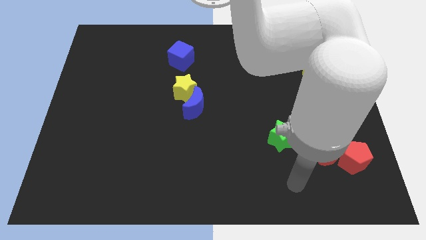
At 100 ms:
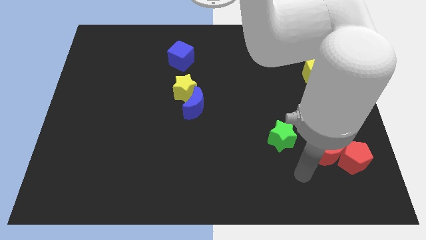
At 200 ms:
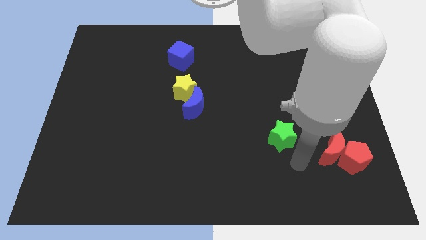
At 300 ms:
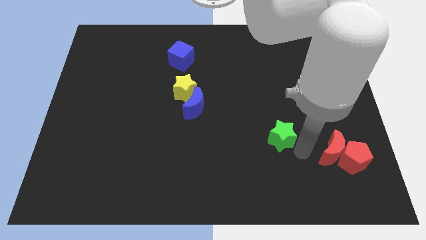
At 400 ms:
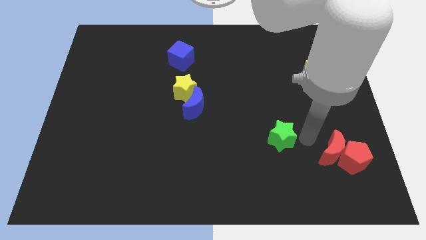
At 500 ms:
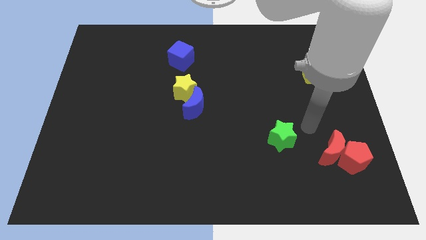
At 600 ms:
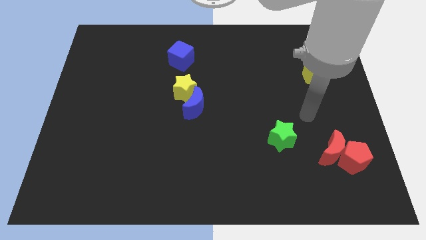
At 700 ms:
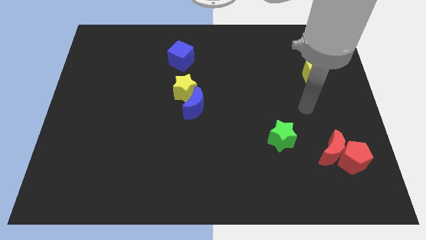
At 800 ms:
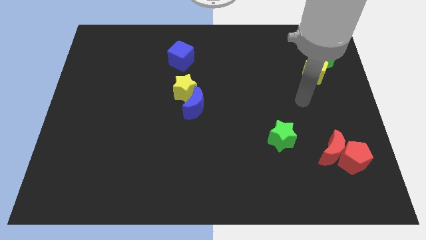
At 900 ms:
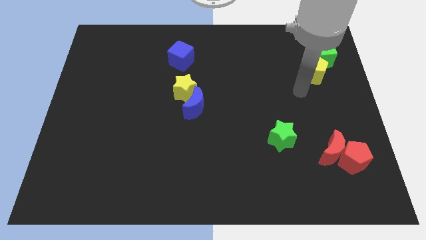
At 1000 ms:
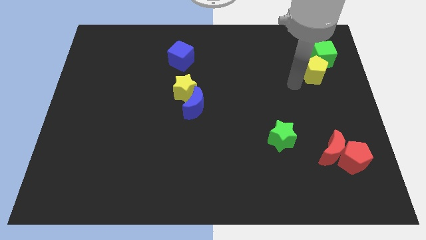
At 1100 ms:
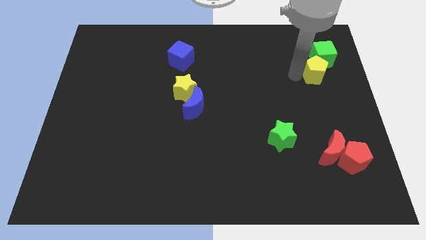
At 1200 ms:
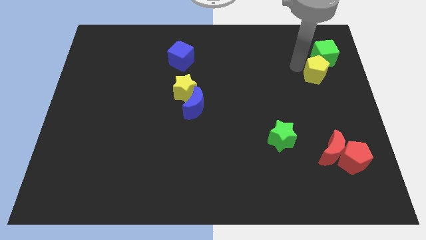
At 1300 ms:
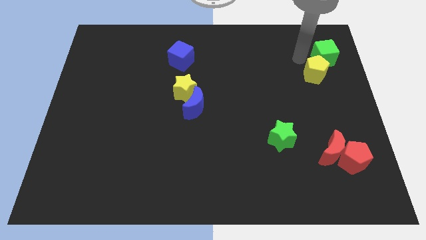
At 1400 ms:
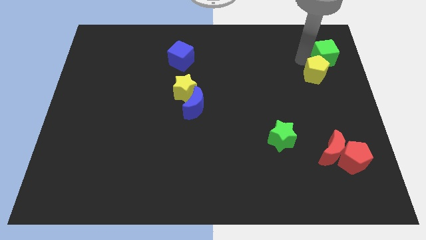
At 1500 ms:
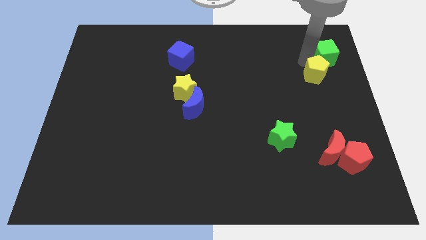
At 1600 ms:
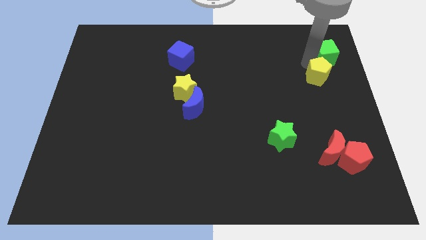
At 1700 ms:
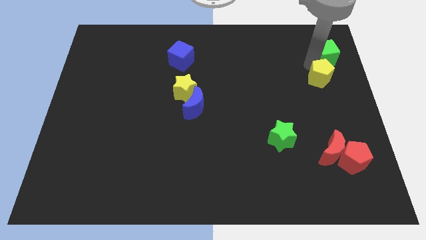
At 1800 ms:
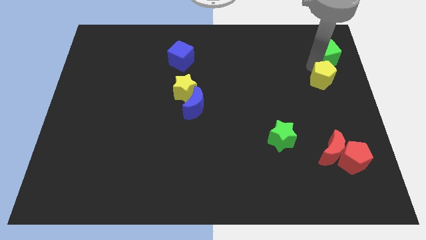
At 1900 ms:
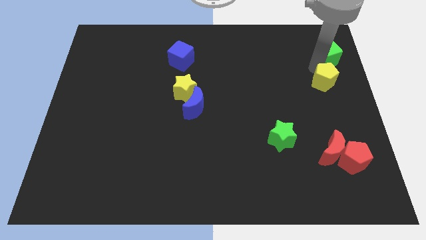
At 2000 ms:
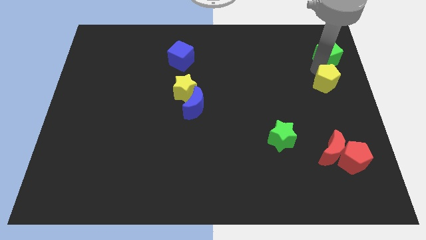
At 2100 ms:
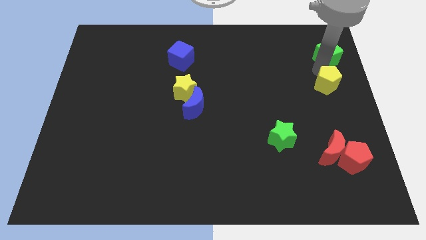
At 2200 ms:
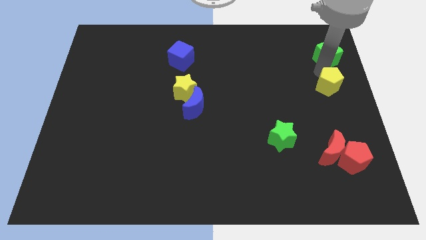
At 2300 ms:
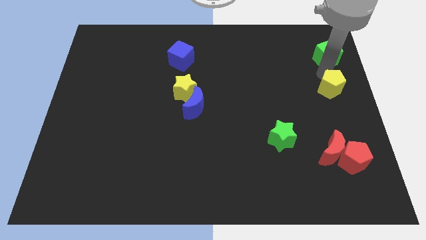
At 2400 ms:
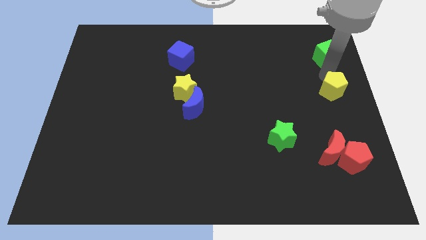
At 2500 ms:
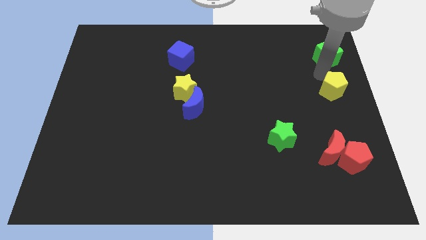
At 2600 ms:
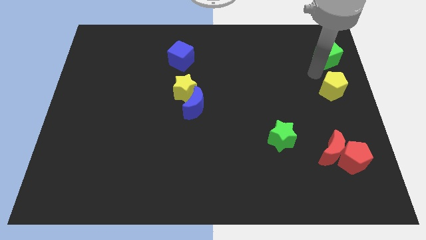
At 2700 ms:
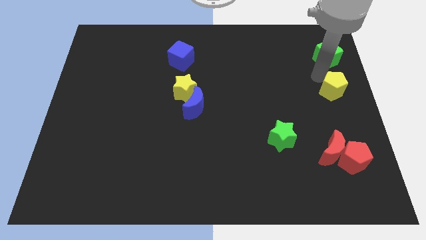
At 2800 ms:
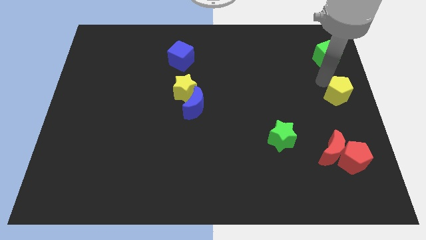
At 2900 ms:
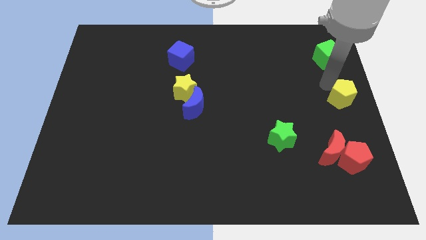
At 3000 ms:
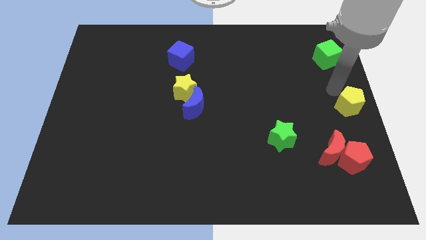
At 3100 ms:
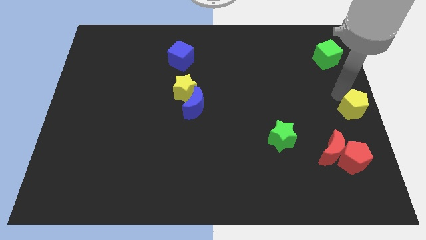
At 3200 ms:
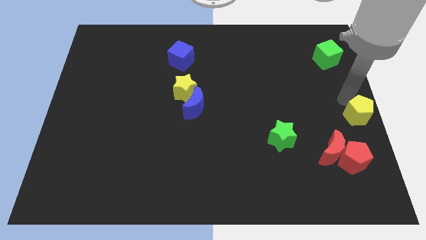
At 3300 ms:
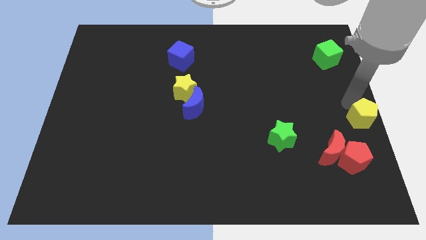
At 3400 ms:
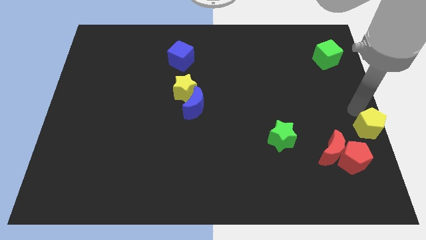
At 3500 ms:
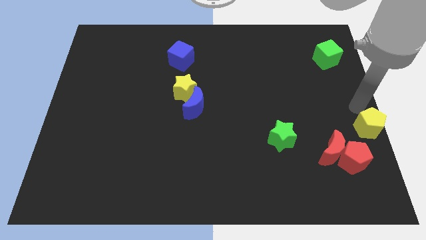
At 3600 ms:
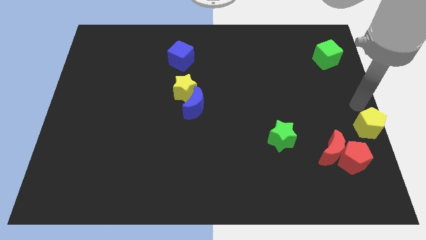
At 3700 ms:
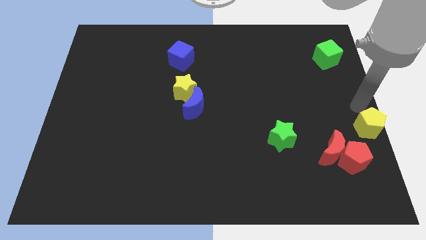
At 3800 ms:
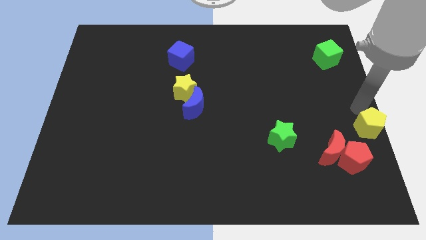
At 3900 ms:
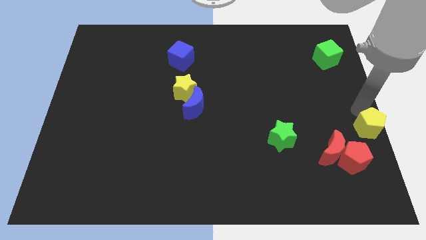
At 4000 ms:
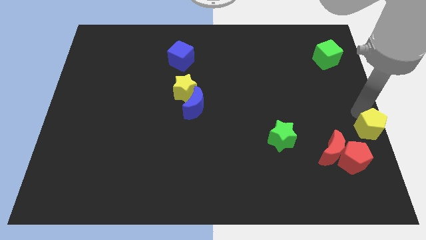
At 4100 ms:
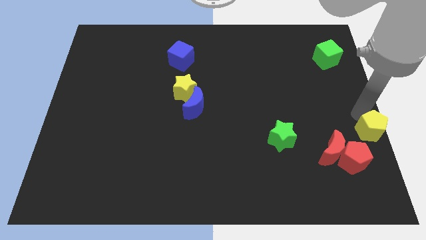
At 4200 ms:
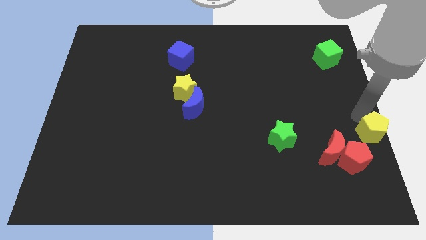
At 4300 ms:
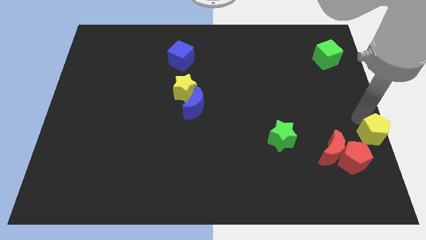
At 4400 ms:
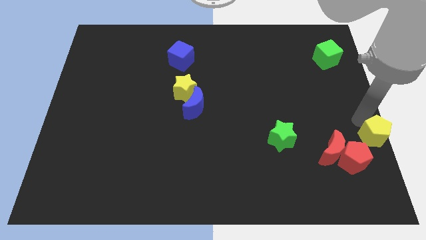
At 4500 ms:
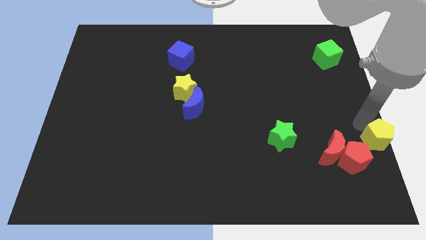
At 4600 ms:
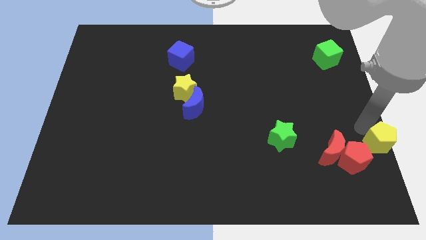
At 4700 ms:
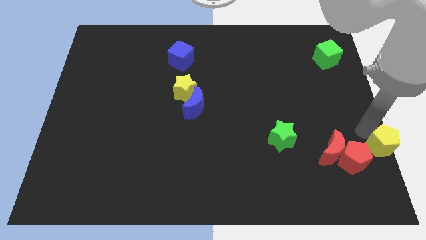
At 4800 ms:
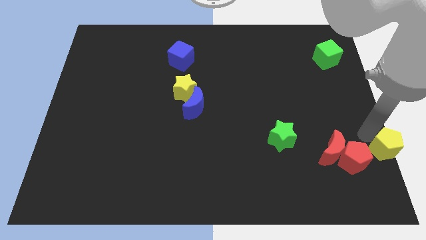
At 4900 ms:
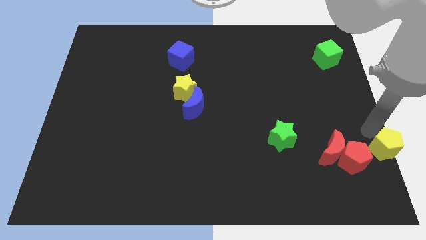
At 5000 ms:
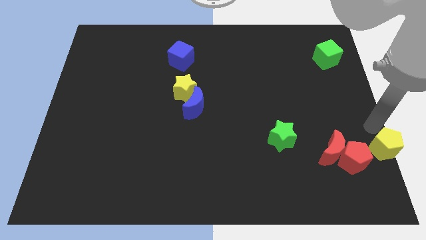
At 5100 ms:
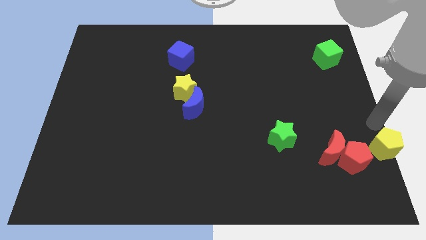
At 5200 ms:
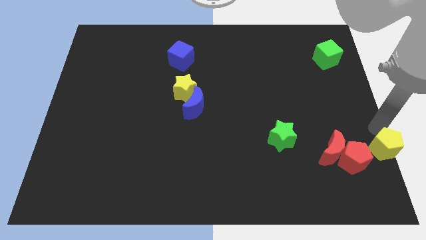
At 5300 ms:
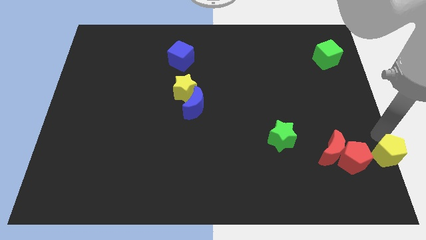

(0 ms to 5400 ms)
move the yellow pentagon to the bottom right

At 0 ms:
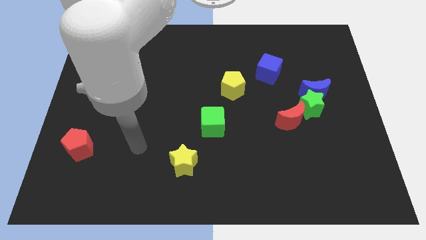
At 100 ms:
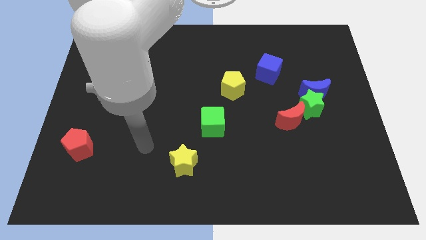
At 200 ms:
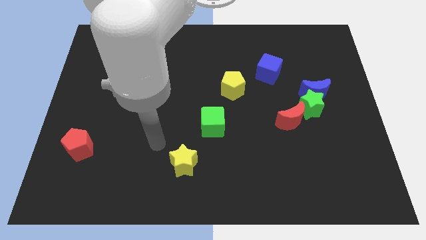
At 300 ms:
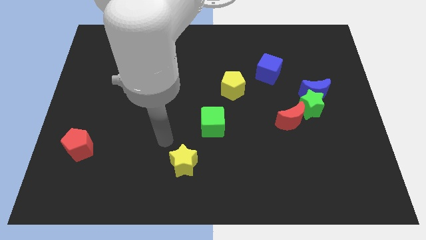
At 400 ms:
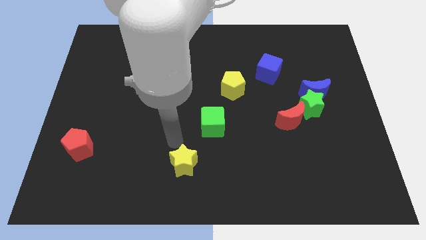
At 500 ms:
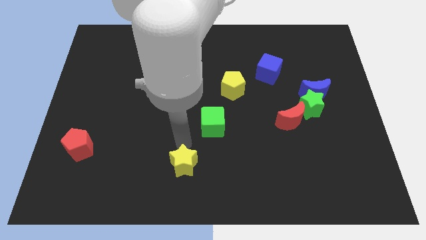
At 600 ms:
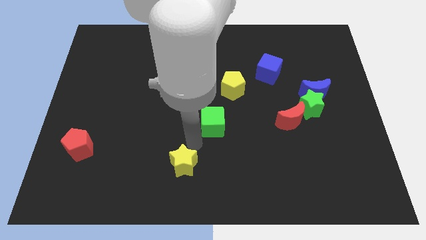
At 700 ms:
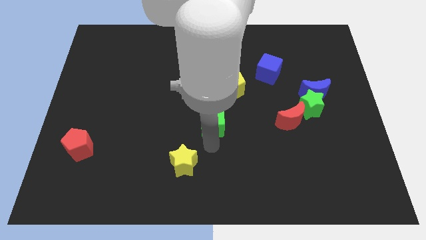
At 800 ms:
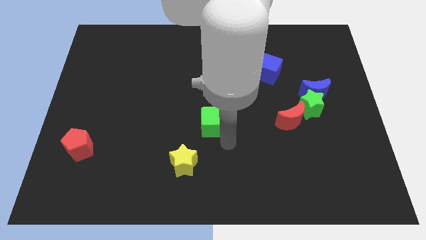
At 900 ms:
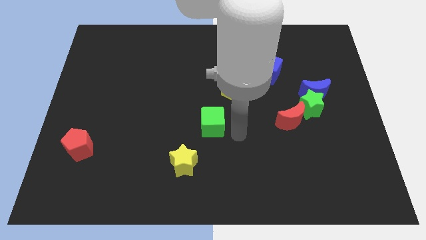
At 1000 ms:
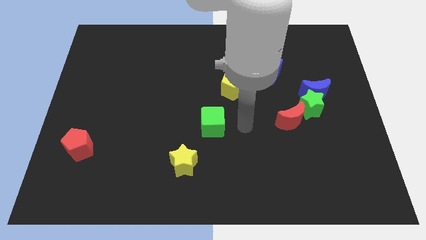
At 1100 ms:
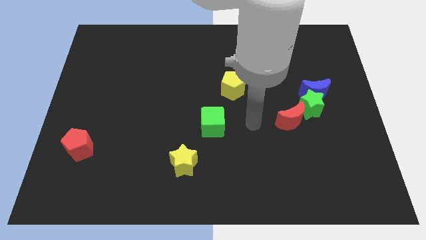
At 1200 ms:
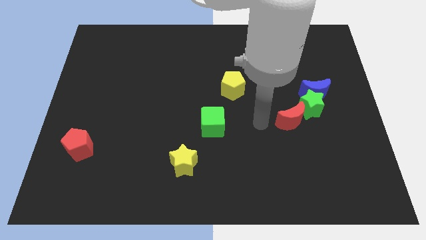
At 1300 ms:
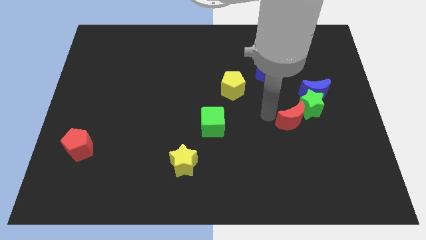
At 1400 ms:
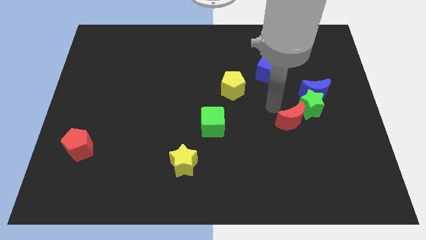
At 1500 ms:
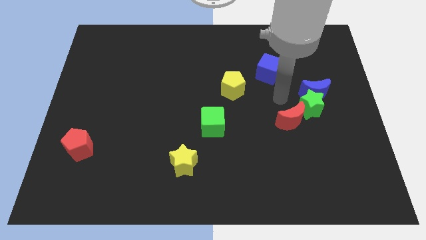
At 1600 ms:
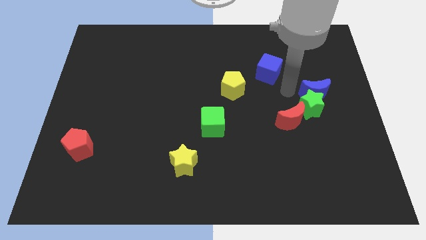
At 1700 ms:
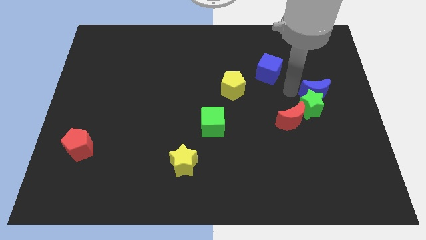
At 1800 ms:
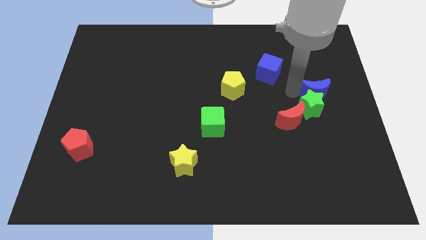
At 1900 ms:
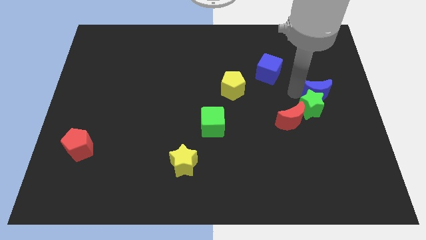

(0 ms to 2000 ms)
slide the blue moon to the right side
